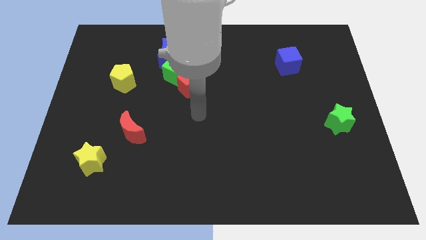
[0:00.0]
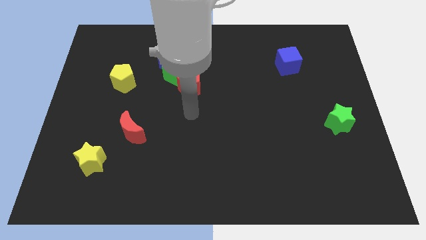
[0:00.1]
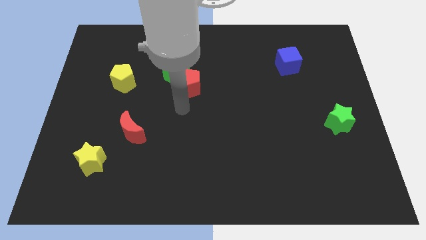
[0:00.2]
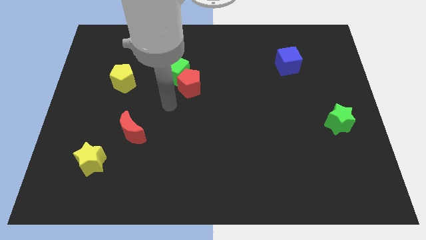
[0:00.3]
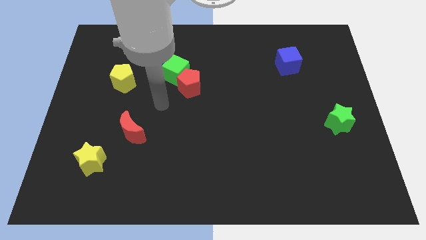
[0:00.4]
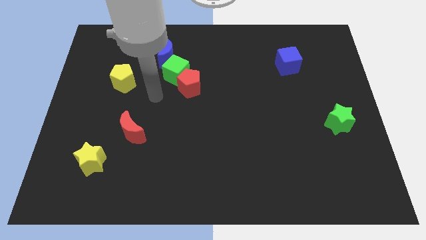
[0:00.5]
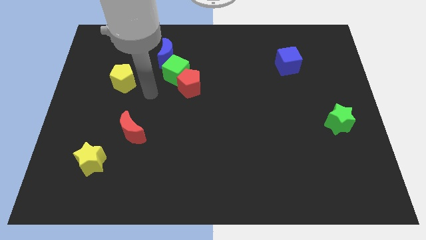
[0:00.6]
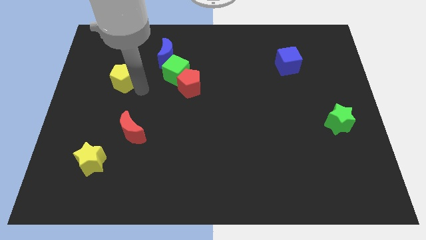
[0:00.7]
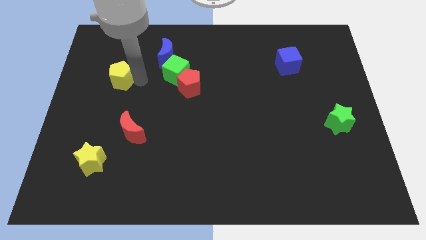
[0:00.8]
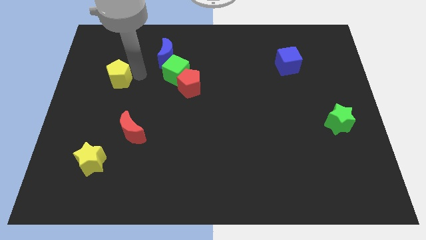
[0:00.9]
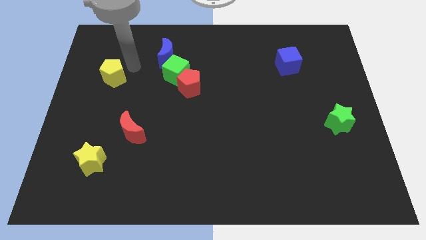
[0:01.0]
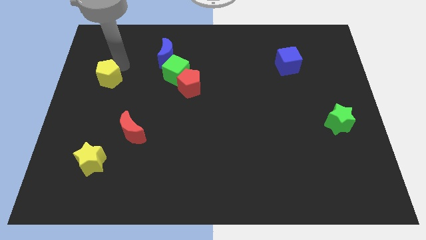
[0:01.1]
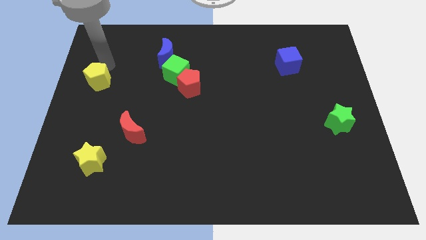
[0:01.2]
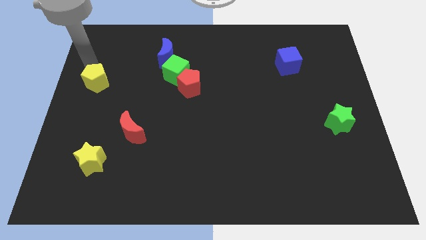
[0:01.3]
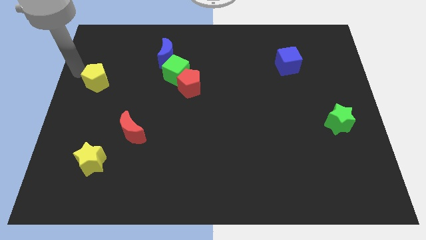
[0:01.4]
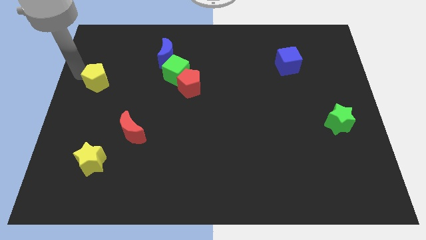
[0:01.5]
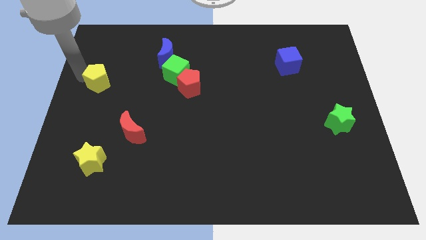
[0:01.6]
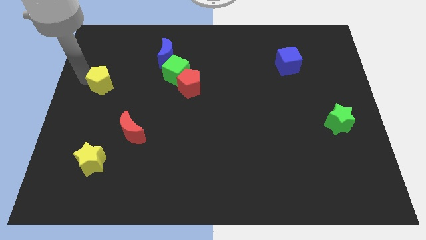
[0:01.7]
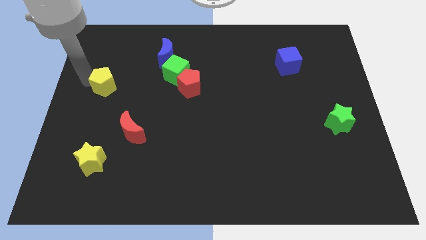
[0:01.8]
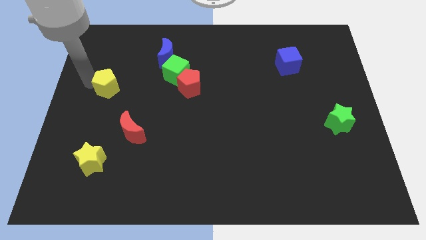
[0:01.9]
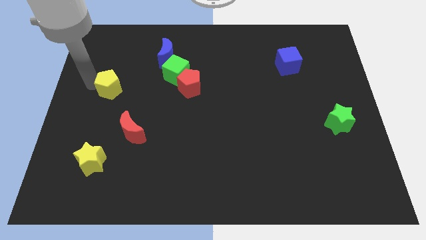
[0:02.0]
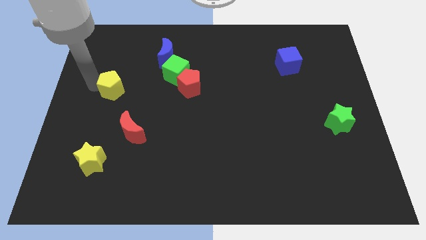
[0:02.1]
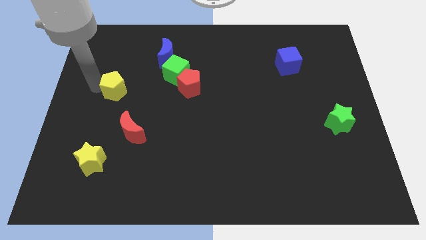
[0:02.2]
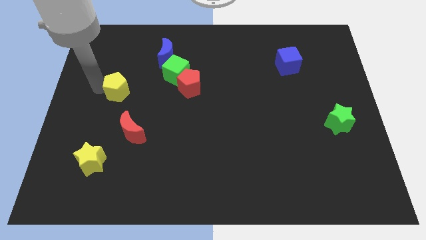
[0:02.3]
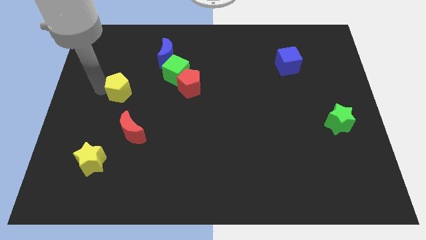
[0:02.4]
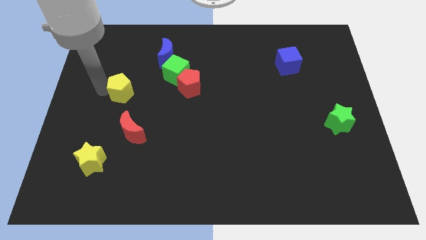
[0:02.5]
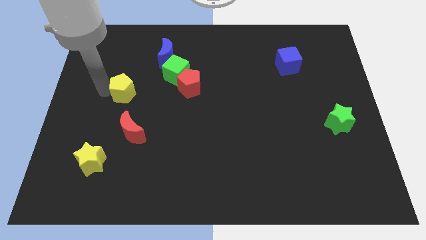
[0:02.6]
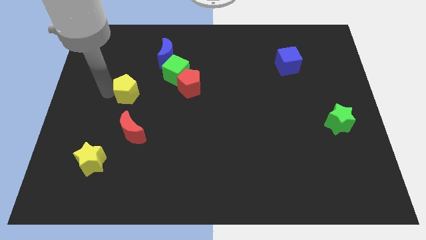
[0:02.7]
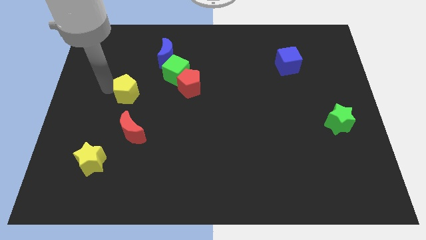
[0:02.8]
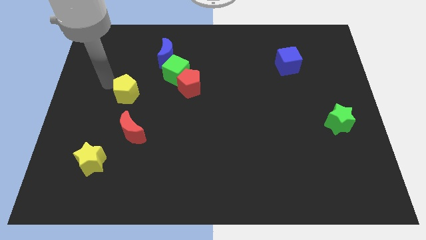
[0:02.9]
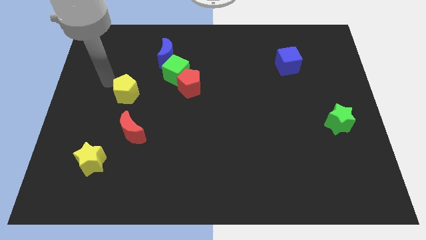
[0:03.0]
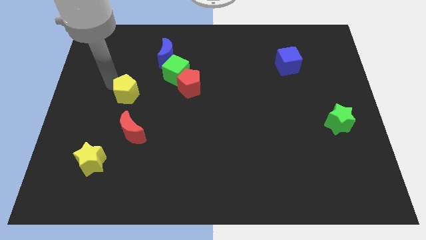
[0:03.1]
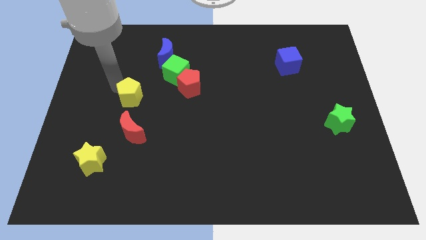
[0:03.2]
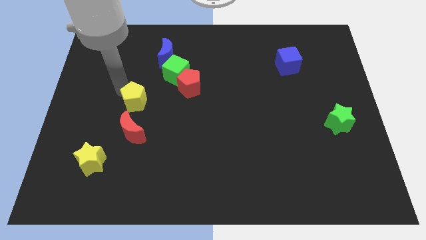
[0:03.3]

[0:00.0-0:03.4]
move the yellow pentagon a little diagonally downwards and right

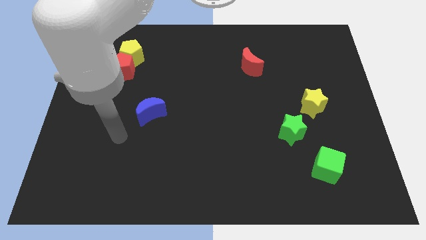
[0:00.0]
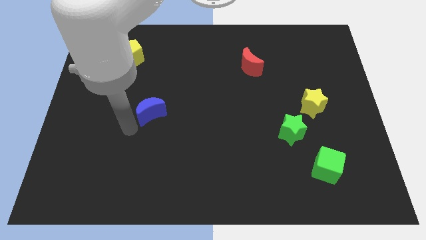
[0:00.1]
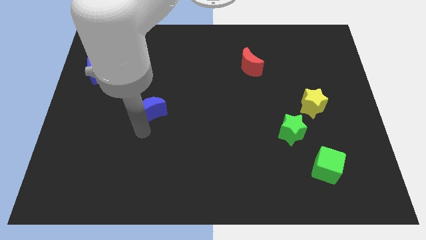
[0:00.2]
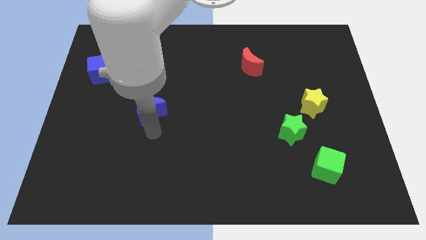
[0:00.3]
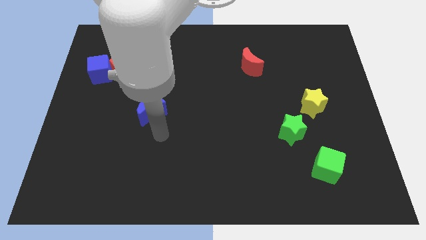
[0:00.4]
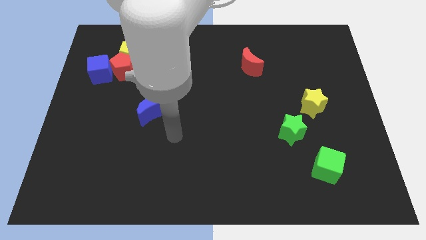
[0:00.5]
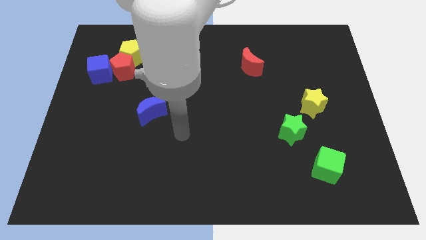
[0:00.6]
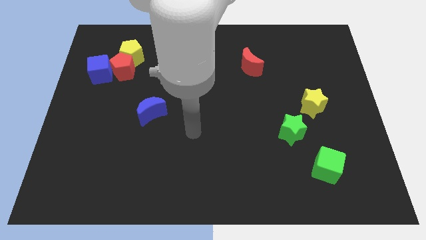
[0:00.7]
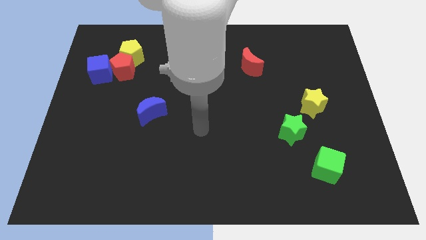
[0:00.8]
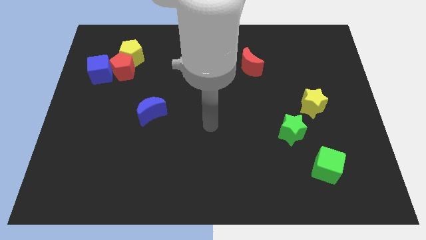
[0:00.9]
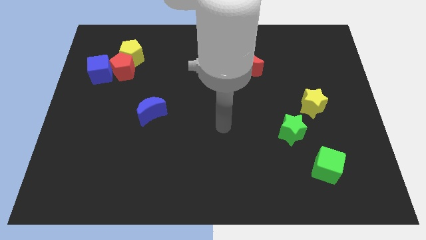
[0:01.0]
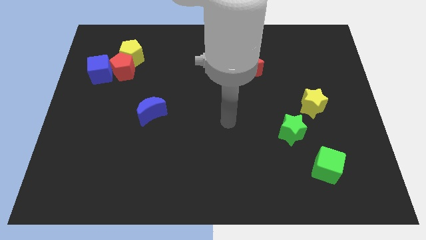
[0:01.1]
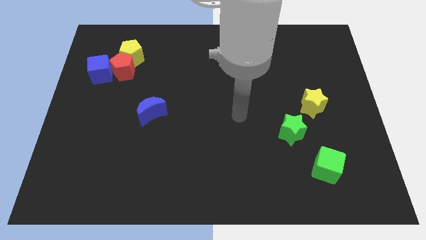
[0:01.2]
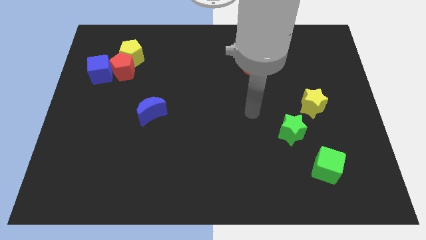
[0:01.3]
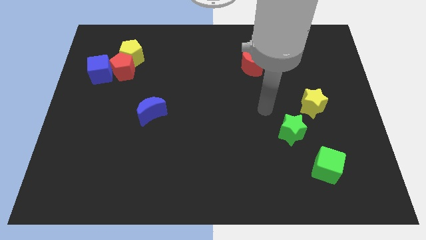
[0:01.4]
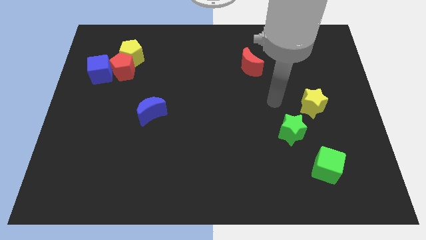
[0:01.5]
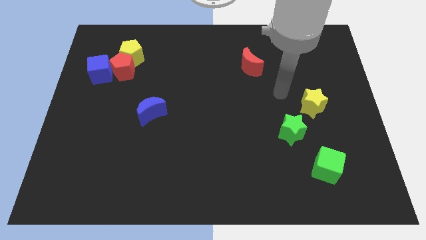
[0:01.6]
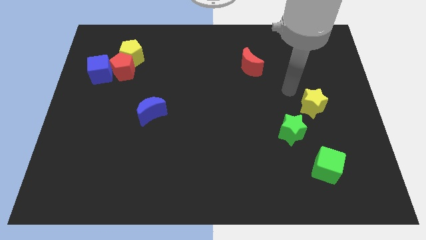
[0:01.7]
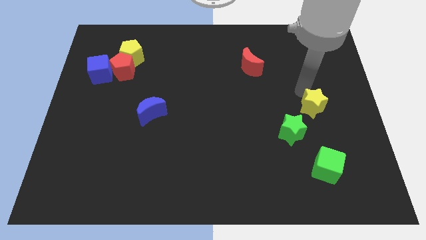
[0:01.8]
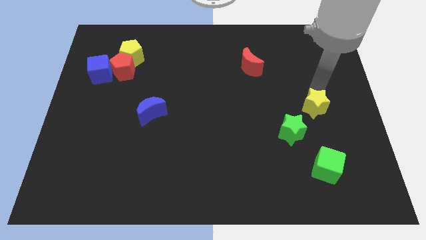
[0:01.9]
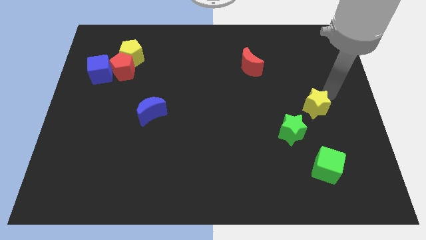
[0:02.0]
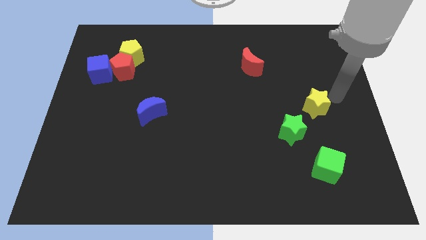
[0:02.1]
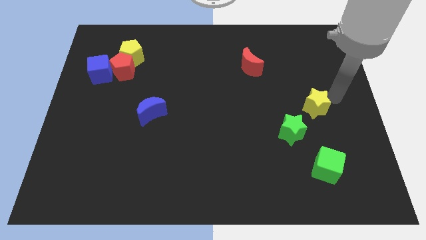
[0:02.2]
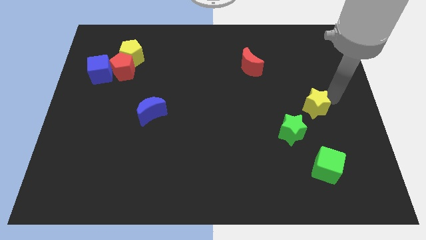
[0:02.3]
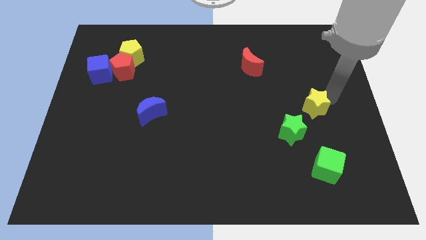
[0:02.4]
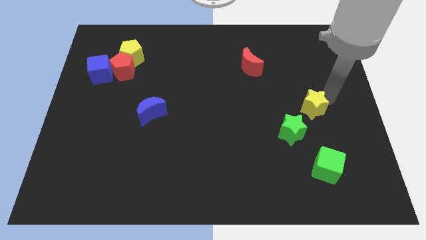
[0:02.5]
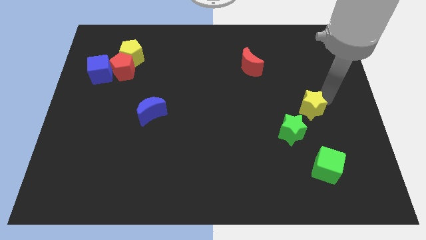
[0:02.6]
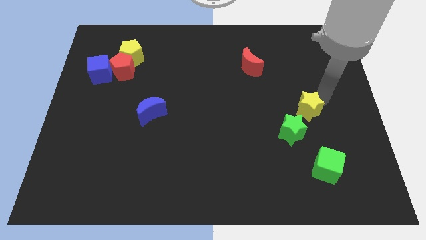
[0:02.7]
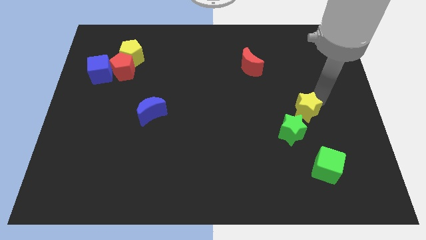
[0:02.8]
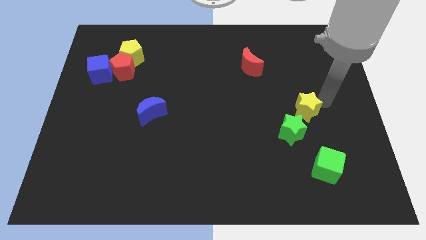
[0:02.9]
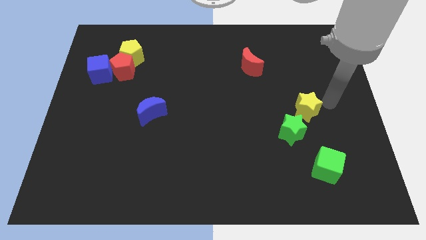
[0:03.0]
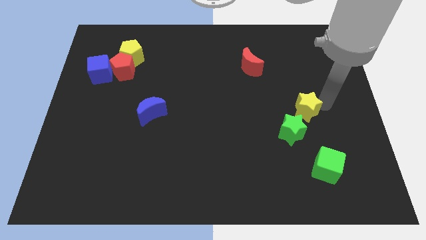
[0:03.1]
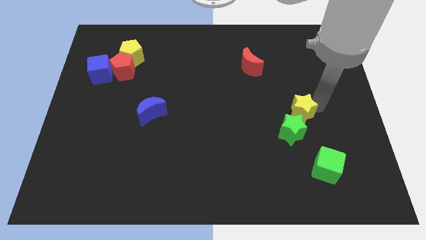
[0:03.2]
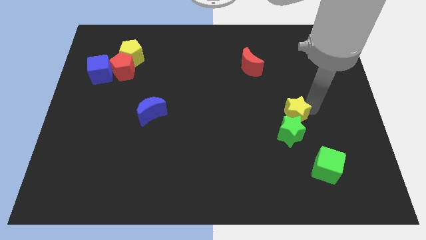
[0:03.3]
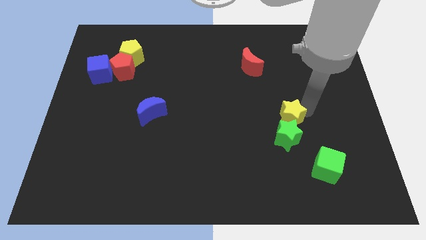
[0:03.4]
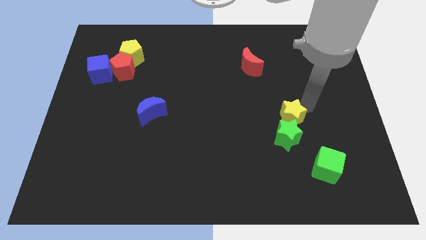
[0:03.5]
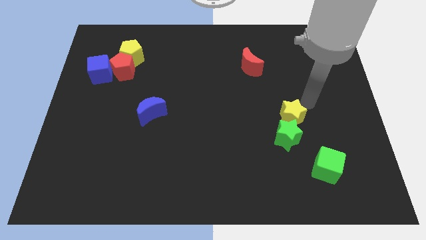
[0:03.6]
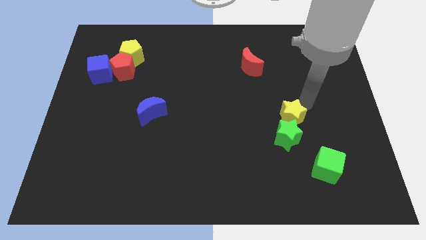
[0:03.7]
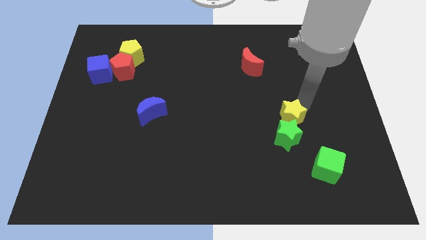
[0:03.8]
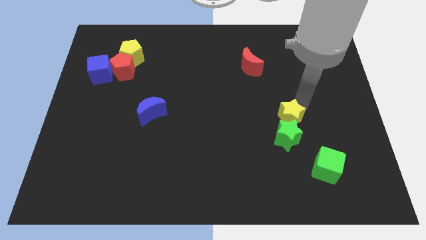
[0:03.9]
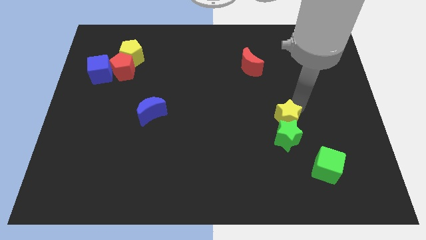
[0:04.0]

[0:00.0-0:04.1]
slightly slide the yellow star down and left

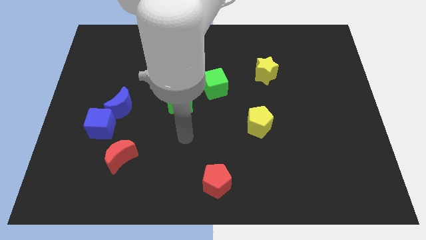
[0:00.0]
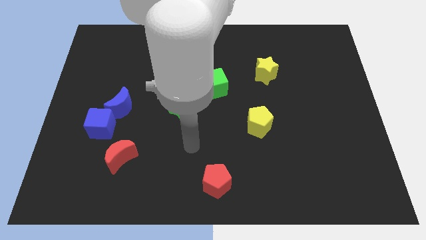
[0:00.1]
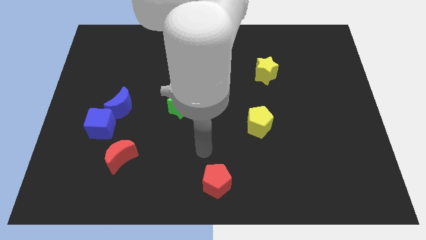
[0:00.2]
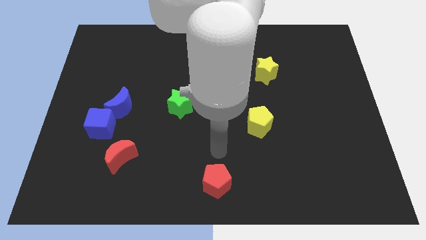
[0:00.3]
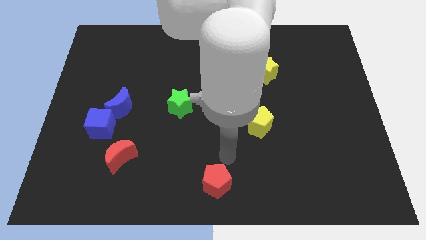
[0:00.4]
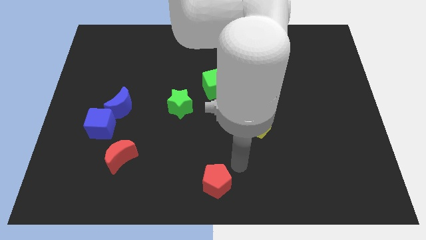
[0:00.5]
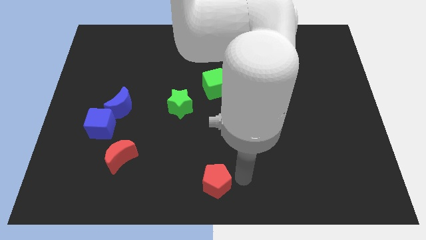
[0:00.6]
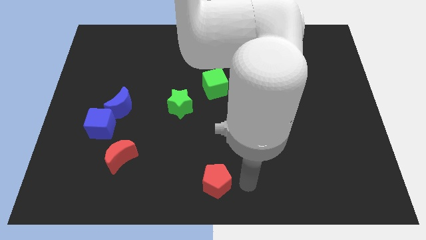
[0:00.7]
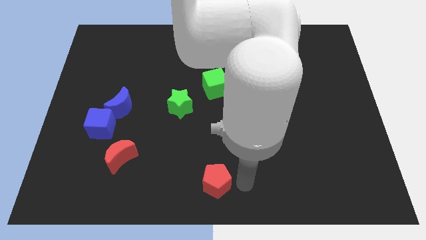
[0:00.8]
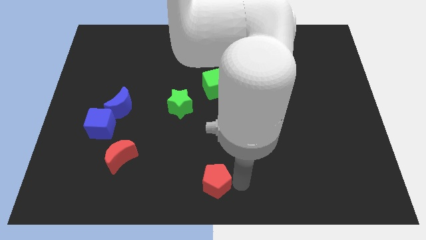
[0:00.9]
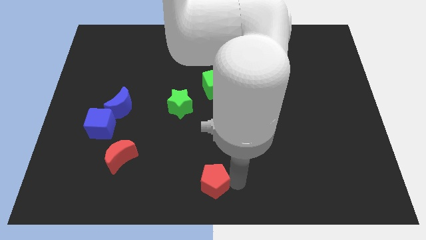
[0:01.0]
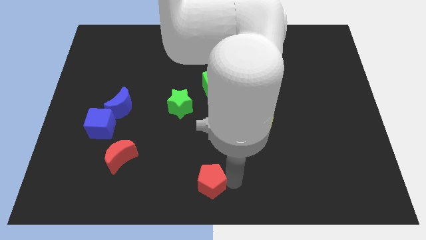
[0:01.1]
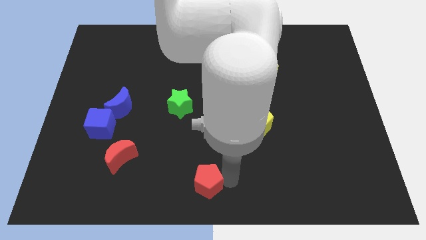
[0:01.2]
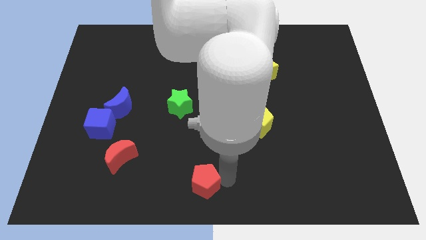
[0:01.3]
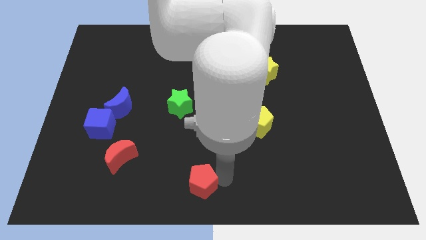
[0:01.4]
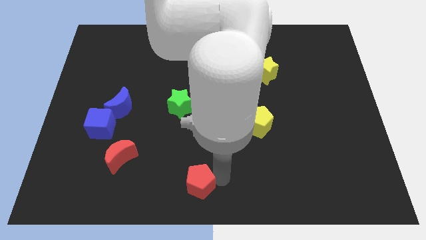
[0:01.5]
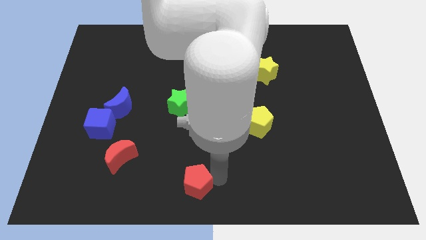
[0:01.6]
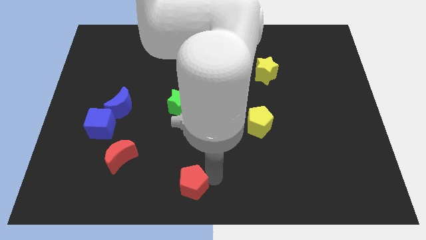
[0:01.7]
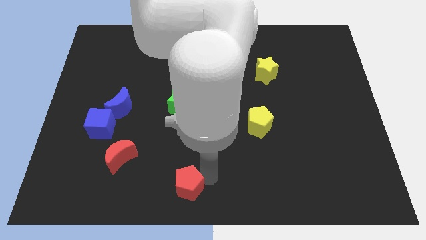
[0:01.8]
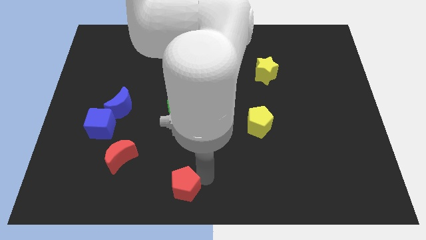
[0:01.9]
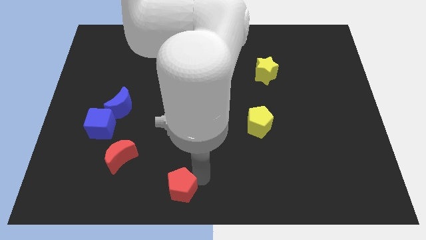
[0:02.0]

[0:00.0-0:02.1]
move the red pentagon a bit left
